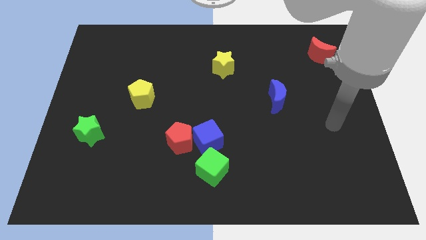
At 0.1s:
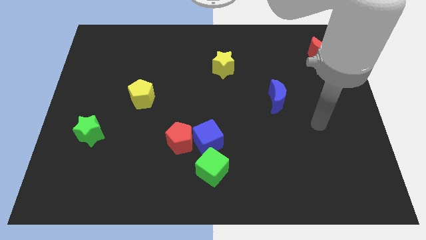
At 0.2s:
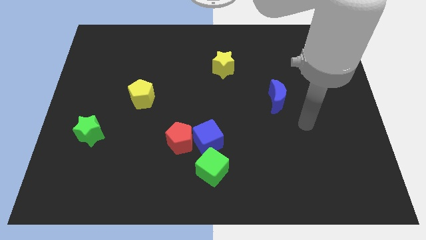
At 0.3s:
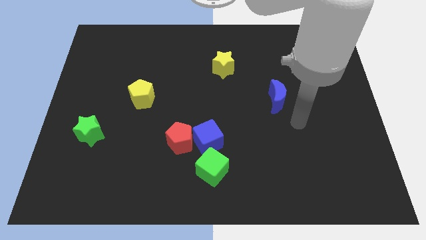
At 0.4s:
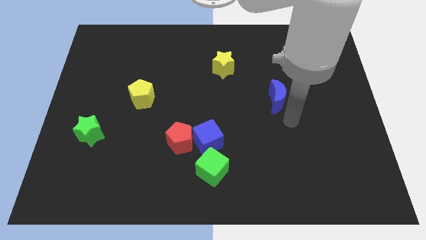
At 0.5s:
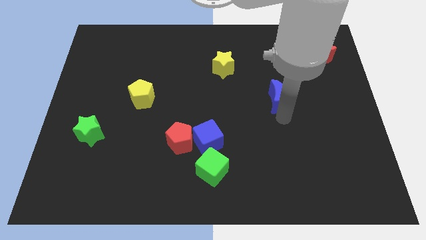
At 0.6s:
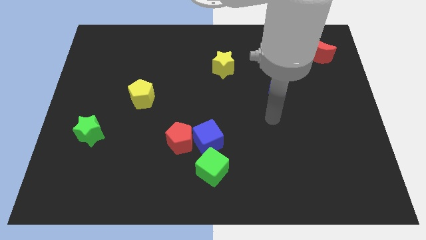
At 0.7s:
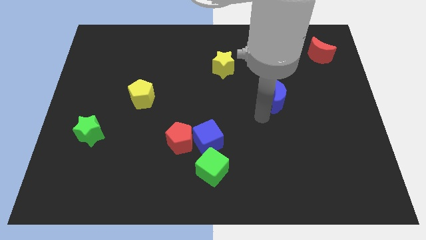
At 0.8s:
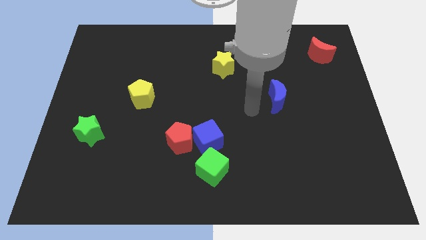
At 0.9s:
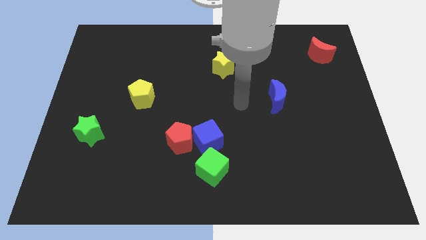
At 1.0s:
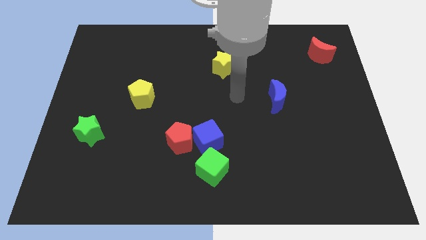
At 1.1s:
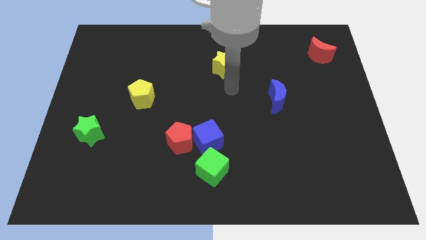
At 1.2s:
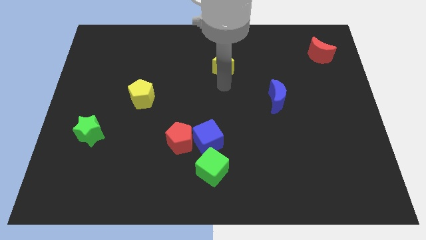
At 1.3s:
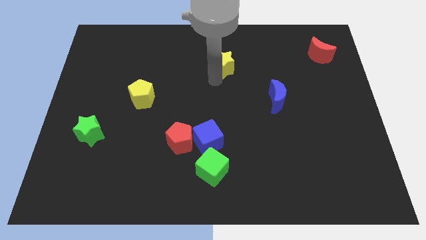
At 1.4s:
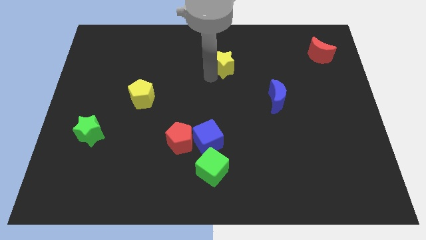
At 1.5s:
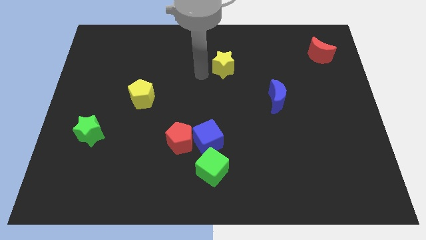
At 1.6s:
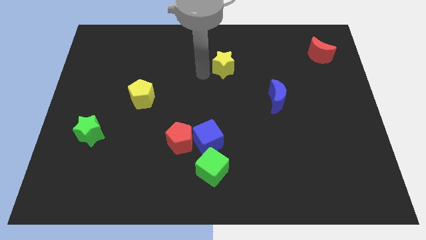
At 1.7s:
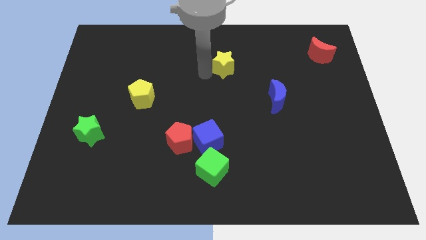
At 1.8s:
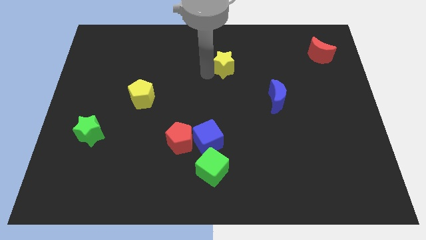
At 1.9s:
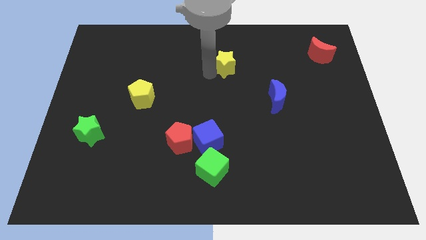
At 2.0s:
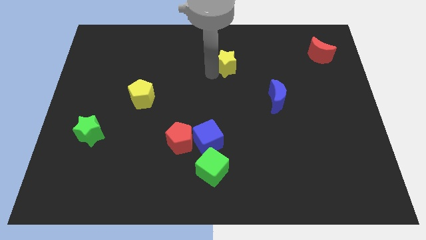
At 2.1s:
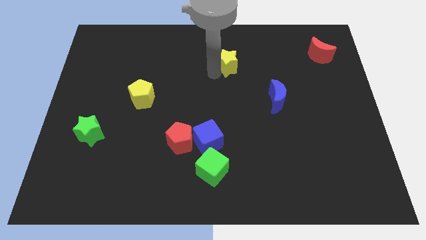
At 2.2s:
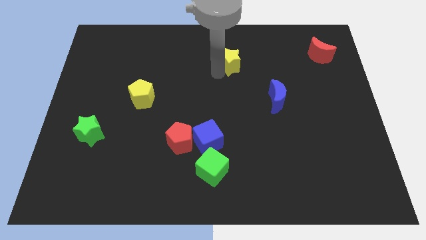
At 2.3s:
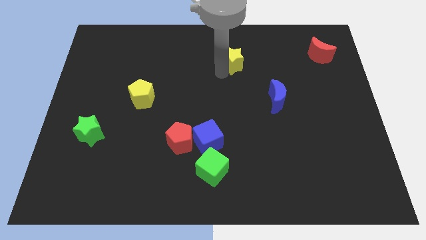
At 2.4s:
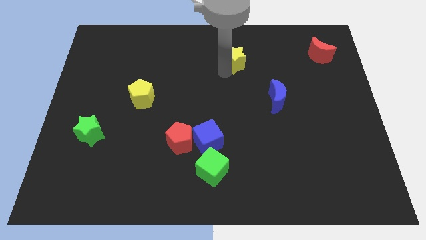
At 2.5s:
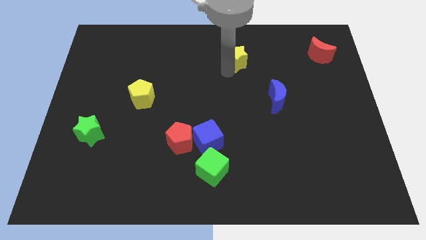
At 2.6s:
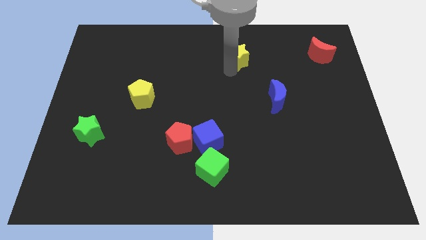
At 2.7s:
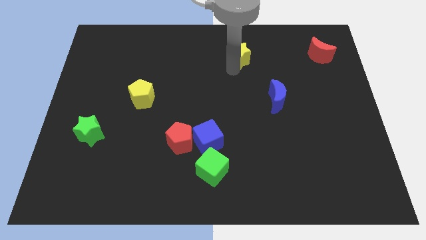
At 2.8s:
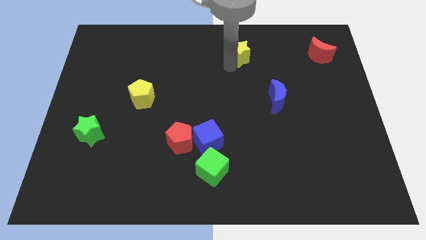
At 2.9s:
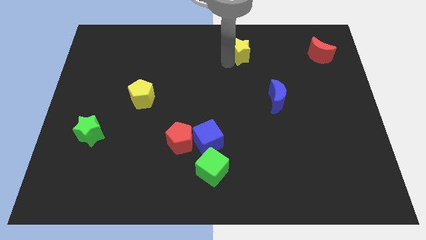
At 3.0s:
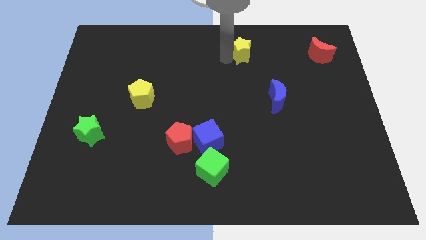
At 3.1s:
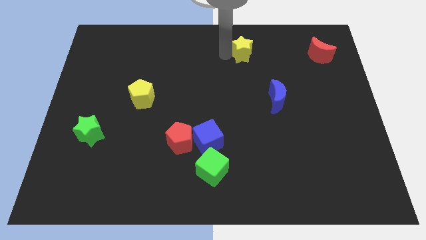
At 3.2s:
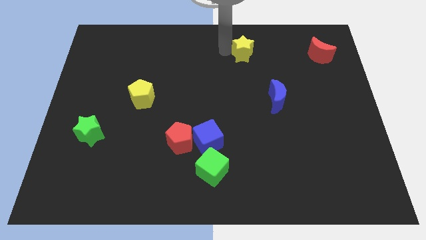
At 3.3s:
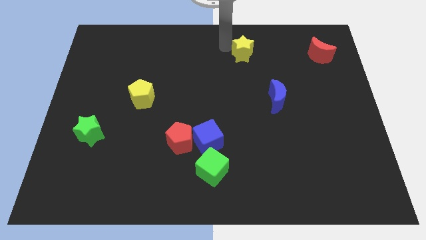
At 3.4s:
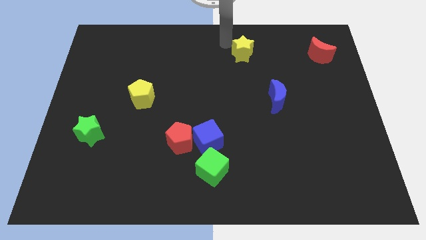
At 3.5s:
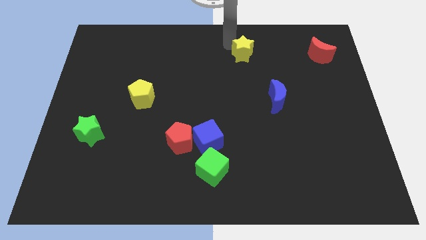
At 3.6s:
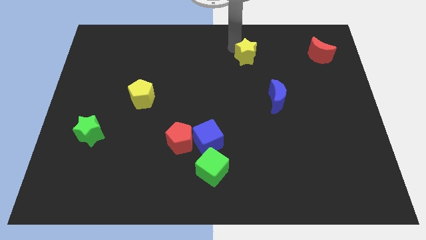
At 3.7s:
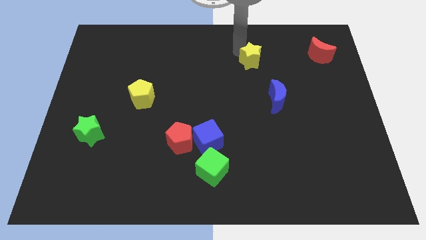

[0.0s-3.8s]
push the yellow star a bit right

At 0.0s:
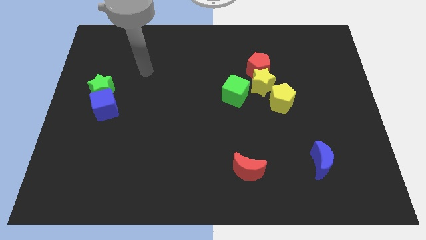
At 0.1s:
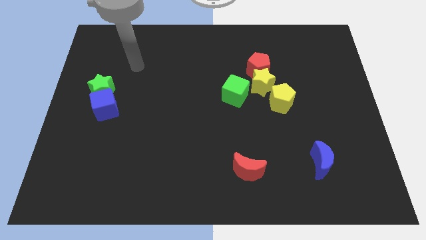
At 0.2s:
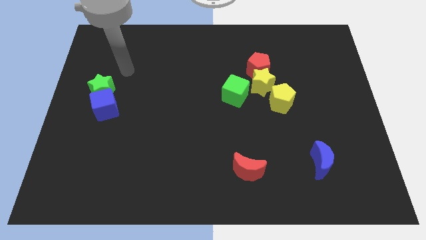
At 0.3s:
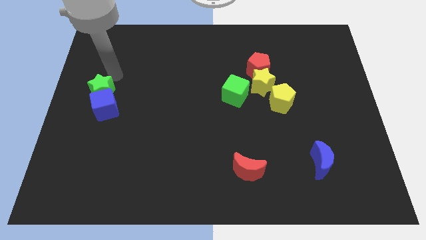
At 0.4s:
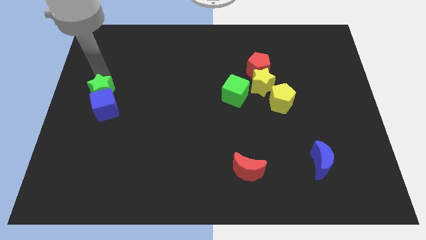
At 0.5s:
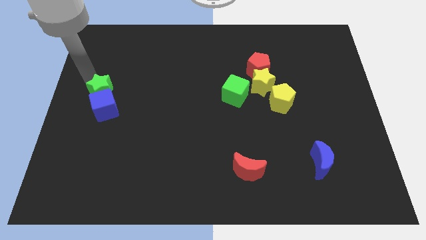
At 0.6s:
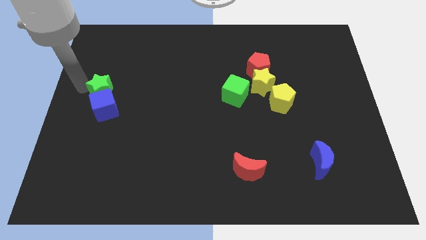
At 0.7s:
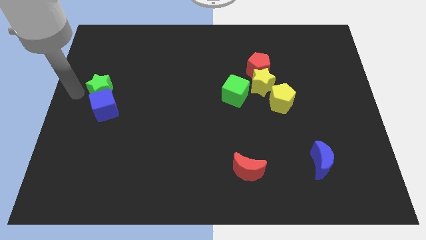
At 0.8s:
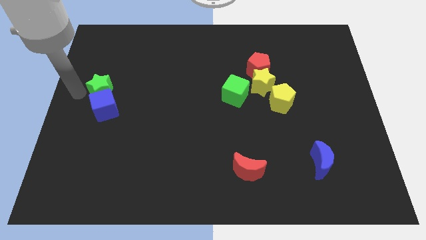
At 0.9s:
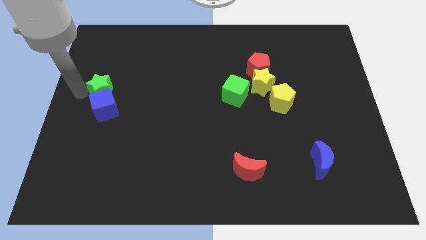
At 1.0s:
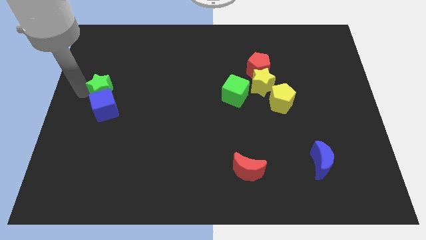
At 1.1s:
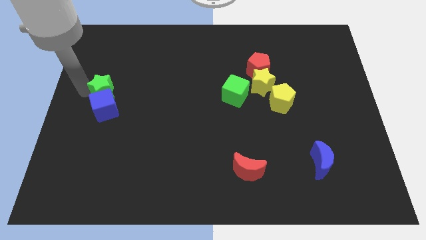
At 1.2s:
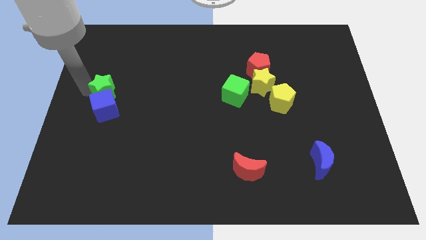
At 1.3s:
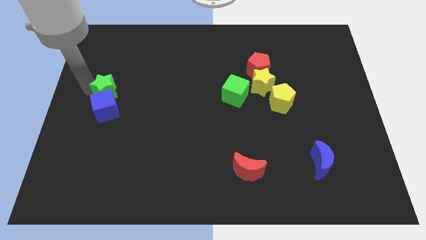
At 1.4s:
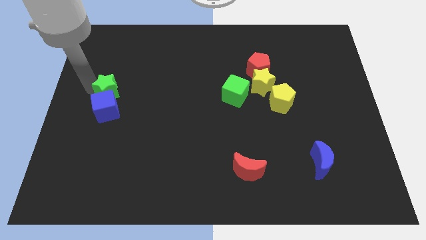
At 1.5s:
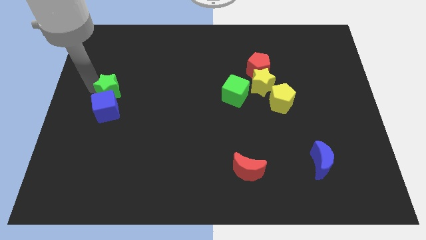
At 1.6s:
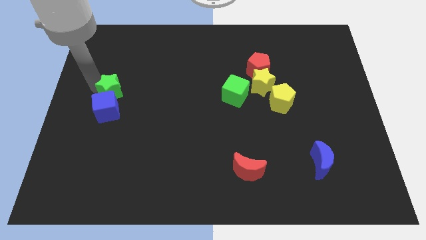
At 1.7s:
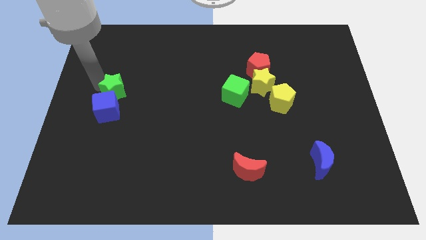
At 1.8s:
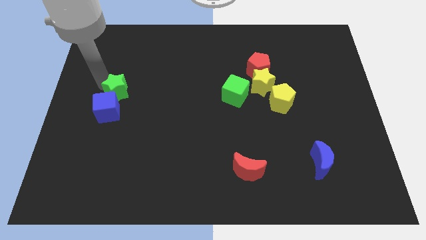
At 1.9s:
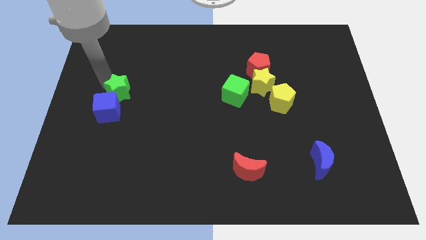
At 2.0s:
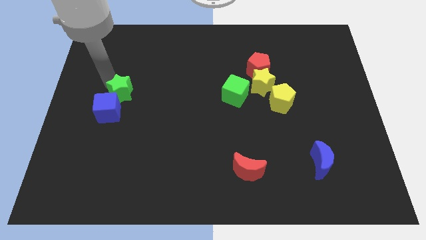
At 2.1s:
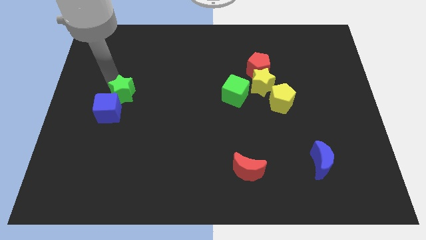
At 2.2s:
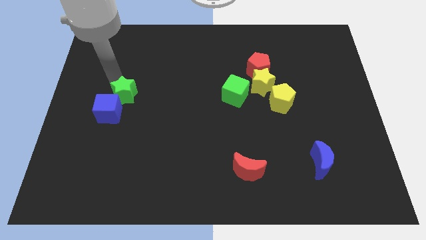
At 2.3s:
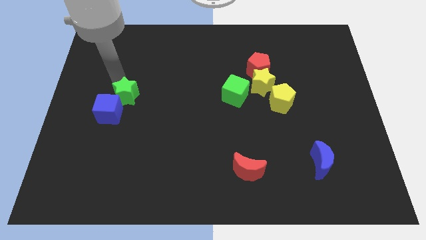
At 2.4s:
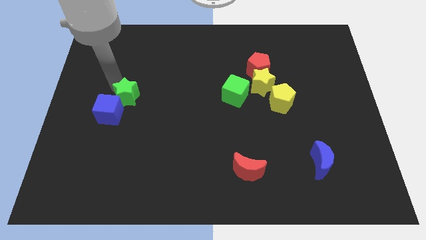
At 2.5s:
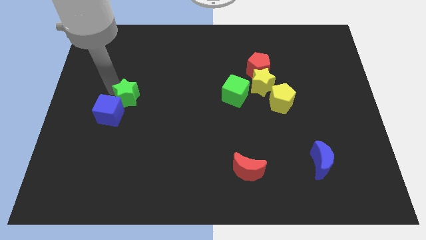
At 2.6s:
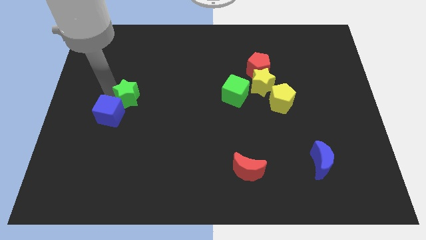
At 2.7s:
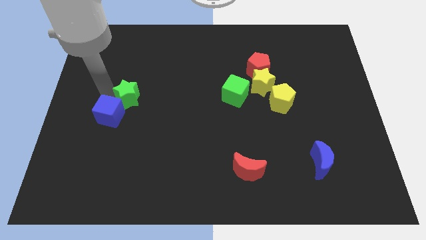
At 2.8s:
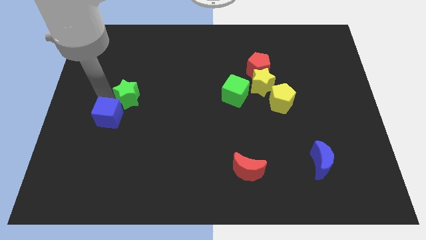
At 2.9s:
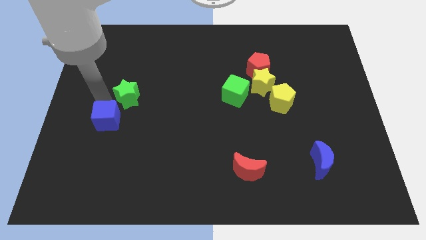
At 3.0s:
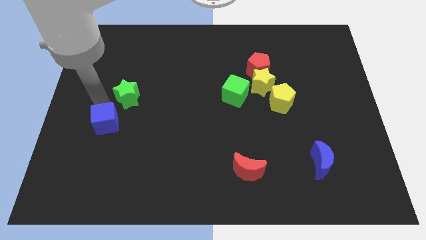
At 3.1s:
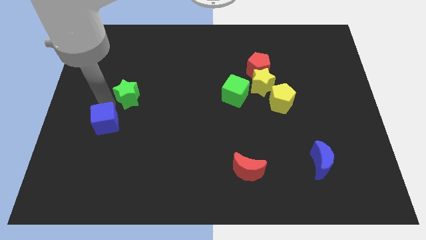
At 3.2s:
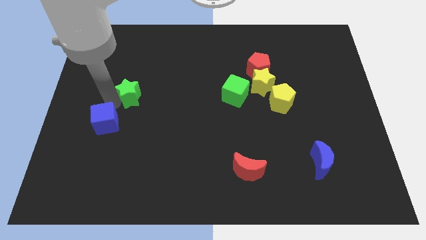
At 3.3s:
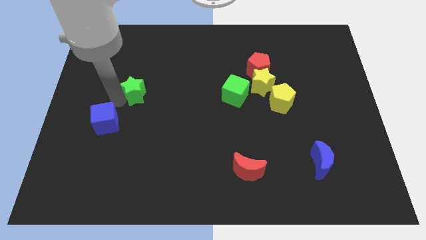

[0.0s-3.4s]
move the green star slightly to the right

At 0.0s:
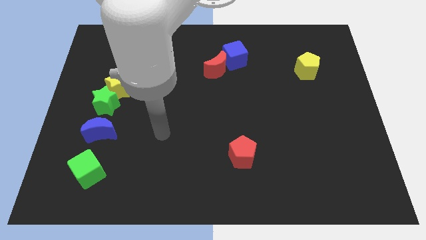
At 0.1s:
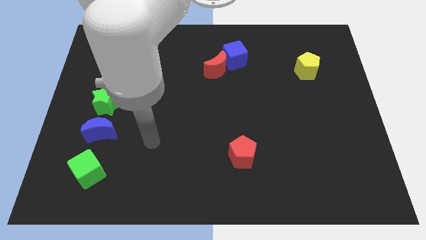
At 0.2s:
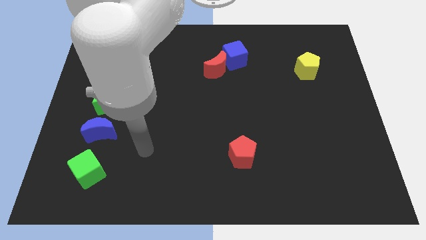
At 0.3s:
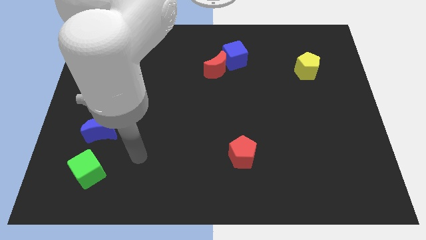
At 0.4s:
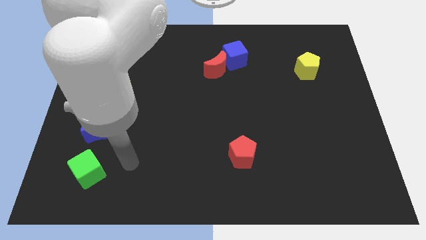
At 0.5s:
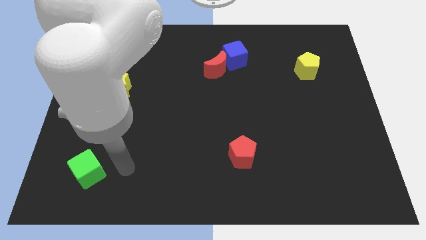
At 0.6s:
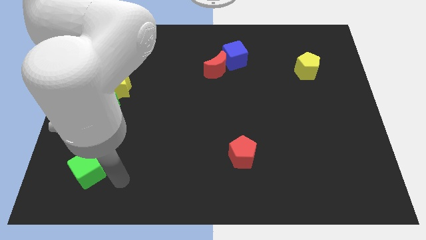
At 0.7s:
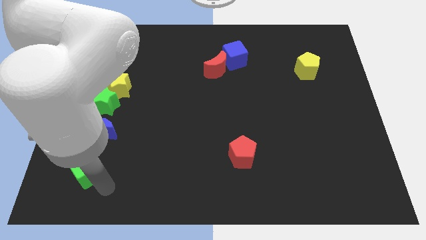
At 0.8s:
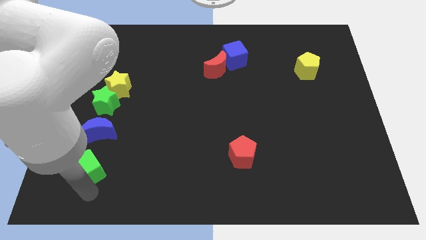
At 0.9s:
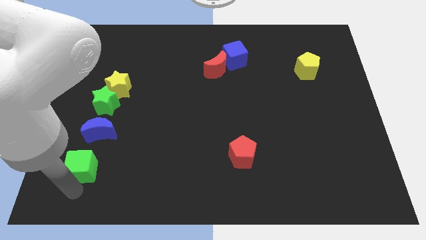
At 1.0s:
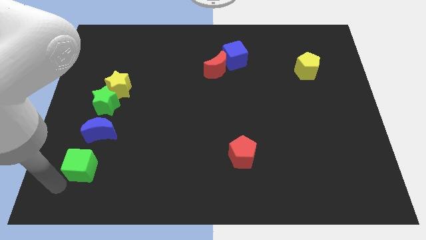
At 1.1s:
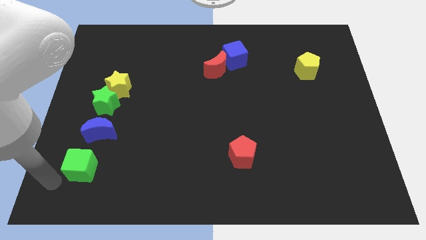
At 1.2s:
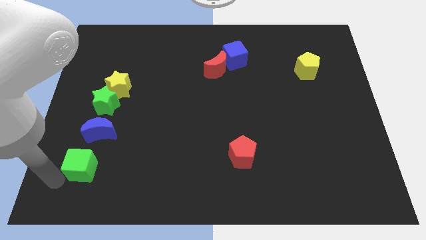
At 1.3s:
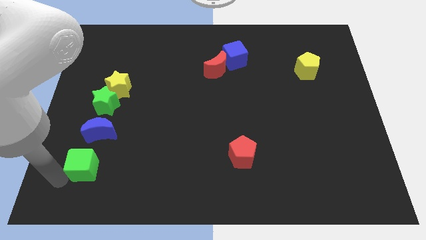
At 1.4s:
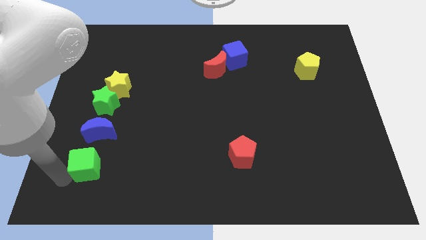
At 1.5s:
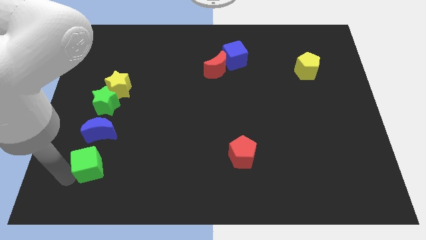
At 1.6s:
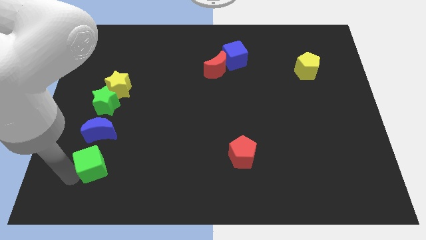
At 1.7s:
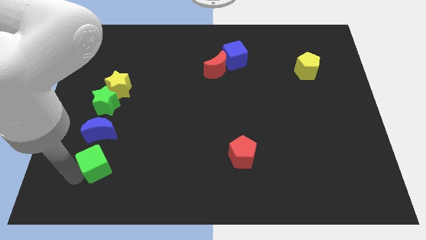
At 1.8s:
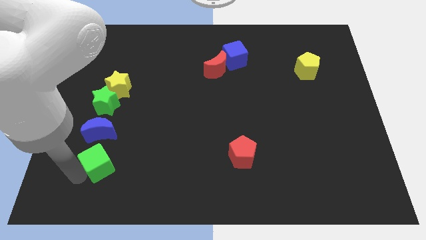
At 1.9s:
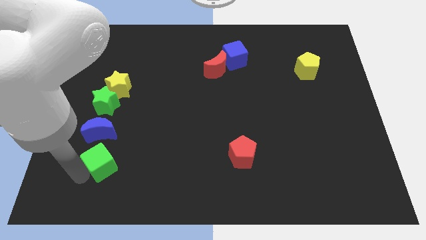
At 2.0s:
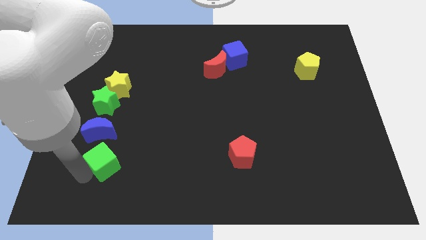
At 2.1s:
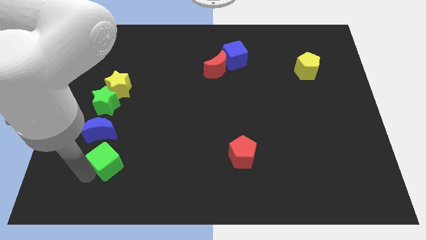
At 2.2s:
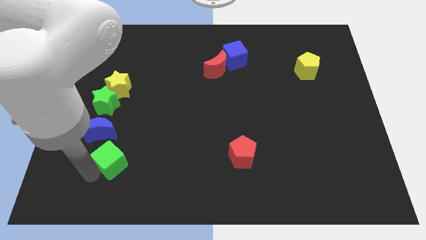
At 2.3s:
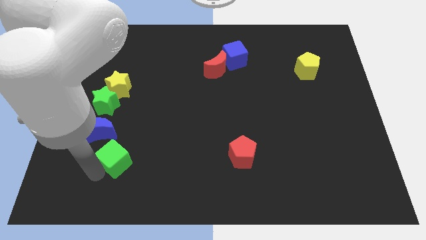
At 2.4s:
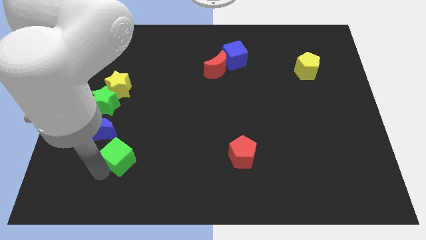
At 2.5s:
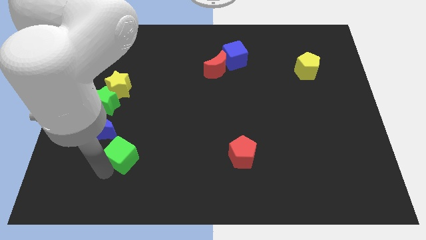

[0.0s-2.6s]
move the green cube a little diagonally upwards and right
